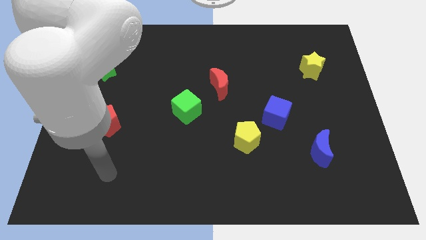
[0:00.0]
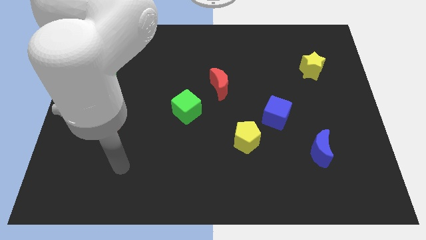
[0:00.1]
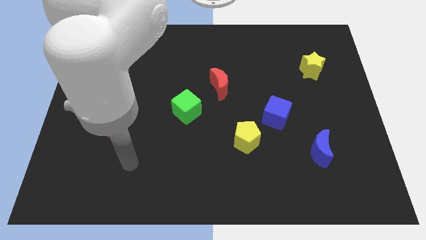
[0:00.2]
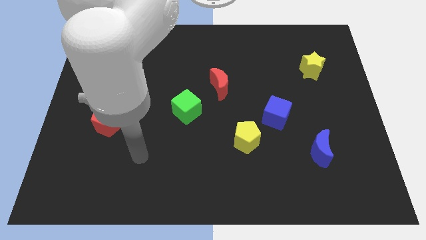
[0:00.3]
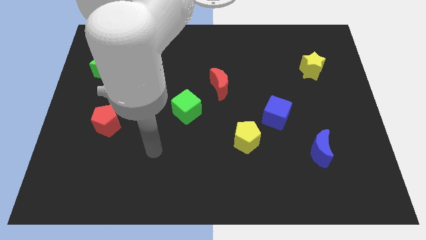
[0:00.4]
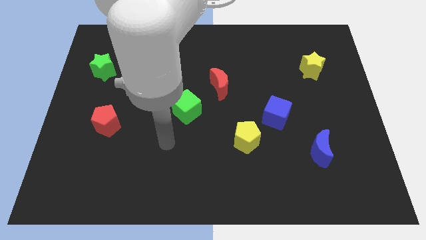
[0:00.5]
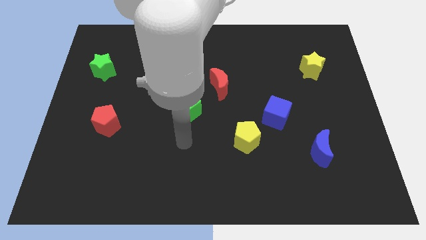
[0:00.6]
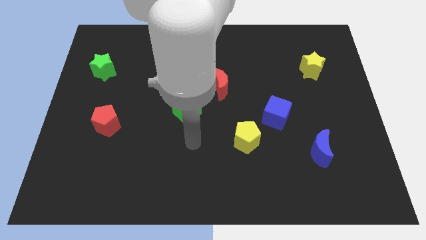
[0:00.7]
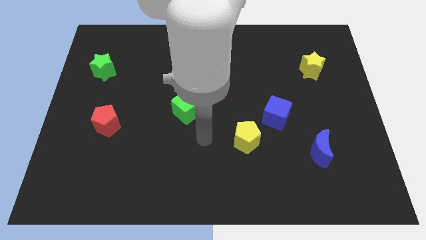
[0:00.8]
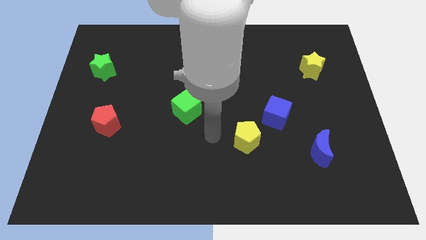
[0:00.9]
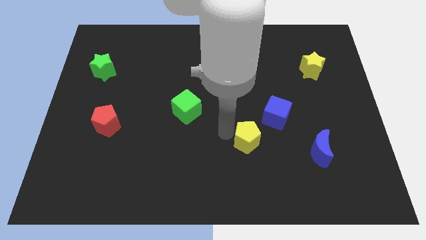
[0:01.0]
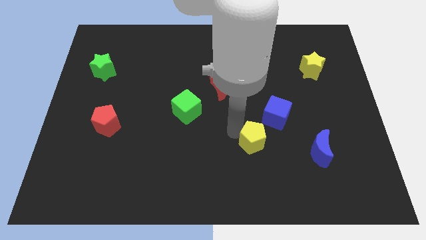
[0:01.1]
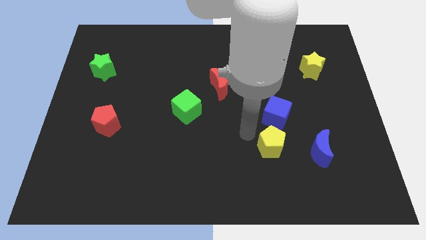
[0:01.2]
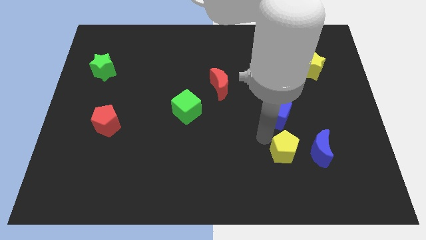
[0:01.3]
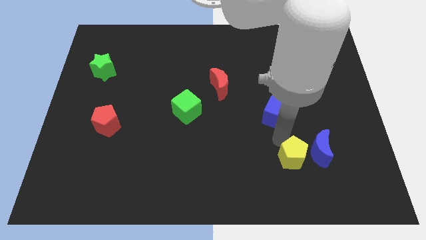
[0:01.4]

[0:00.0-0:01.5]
separate the blue cube from the yellow pentagon

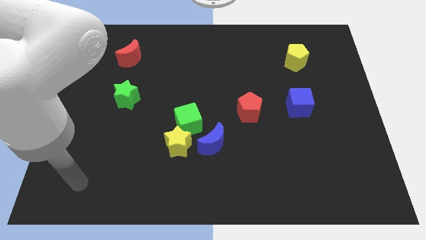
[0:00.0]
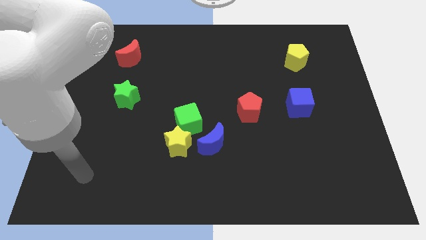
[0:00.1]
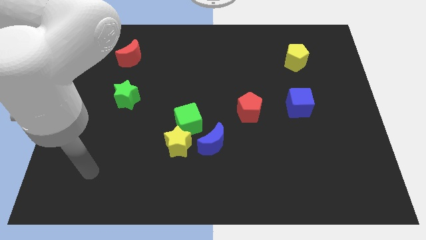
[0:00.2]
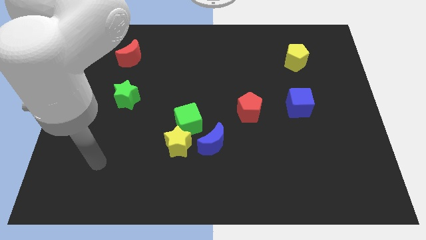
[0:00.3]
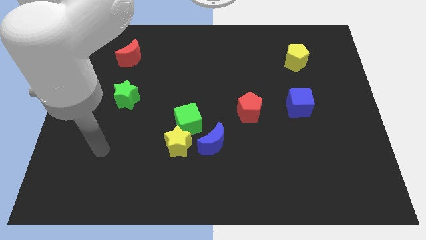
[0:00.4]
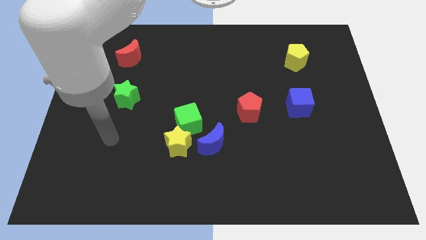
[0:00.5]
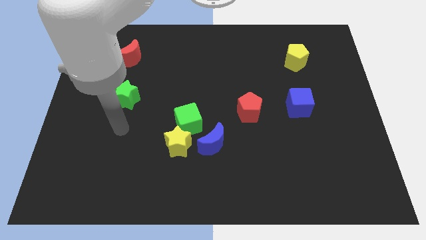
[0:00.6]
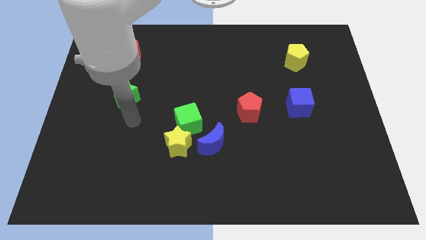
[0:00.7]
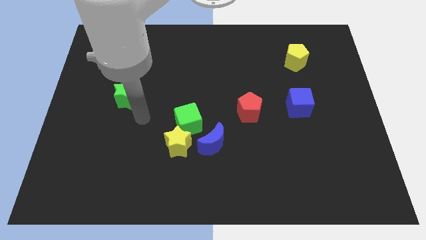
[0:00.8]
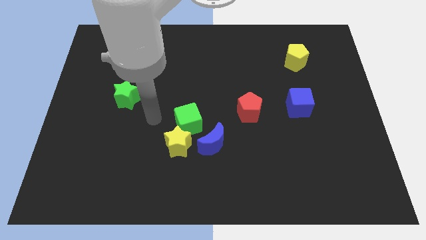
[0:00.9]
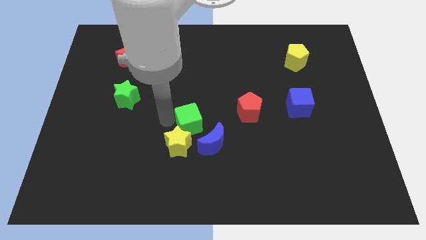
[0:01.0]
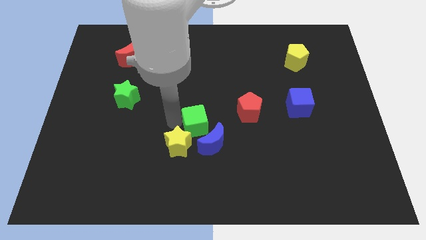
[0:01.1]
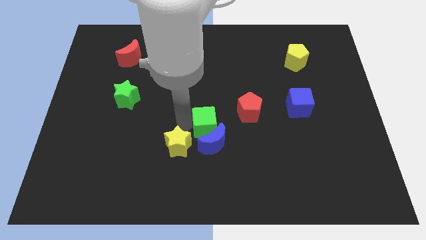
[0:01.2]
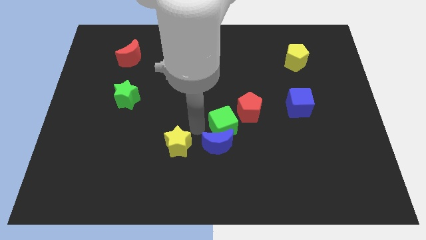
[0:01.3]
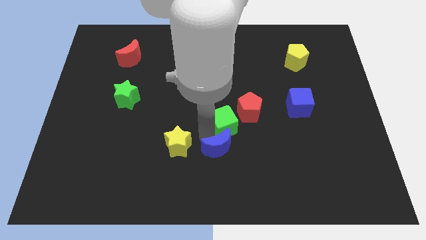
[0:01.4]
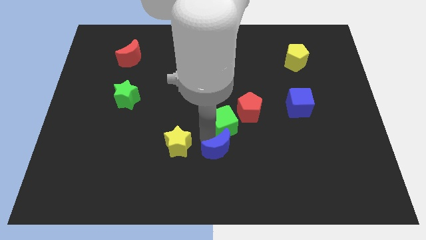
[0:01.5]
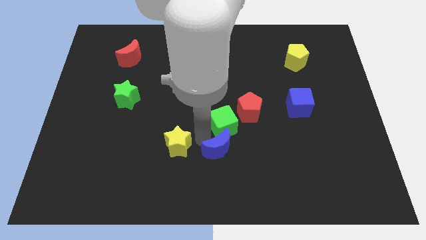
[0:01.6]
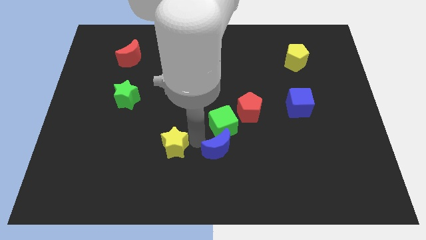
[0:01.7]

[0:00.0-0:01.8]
pull the yellow star apart from the green cube and blue moon

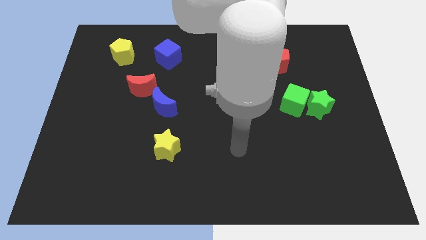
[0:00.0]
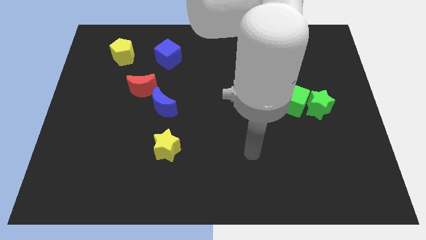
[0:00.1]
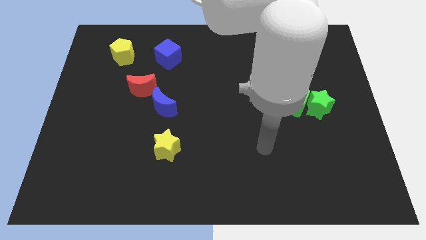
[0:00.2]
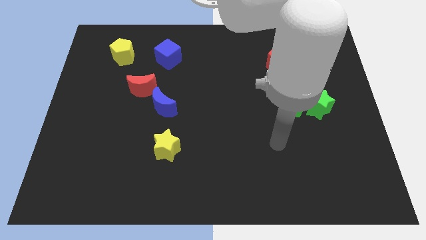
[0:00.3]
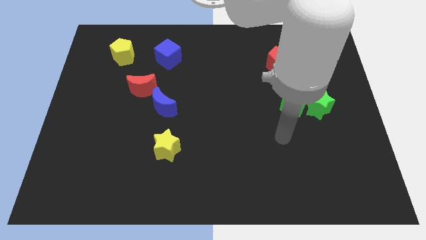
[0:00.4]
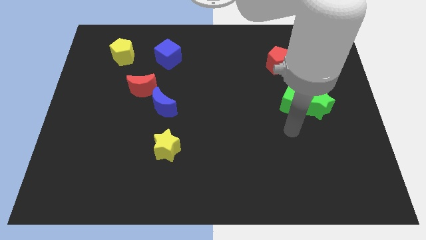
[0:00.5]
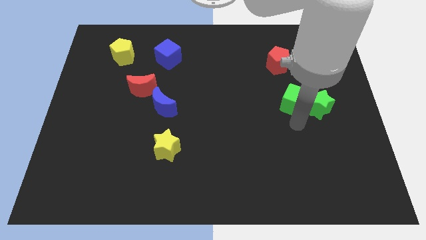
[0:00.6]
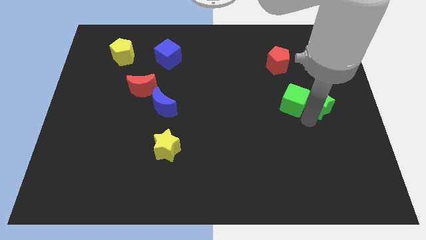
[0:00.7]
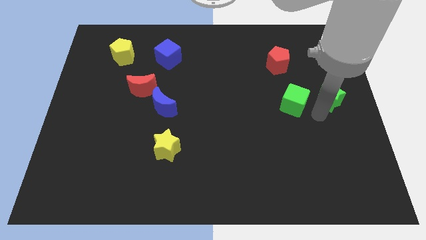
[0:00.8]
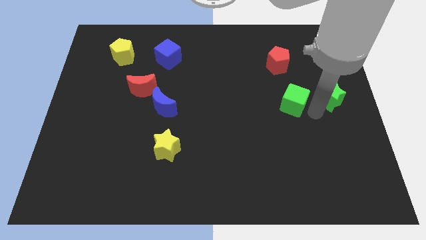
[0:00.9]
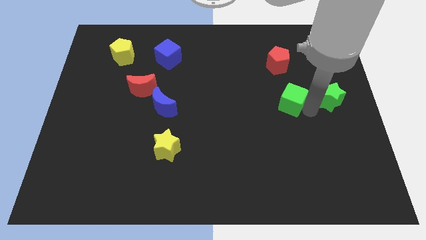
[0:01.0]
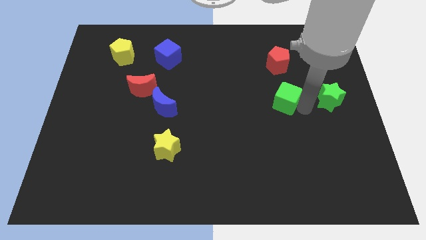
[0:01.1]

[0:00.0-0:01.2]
move the green cube away from the green star

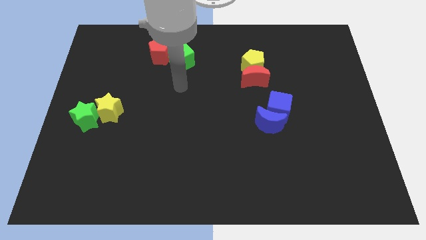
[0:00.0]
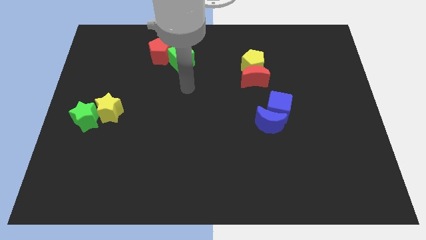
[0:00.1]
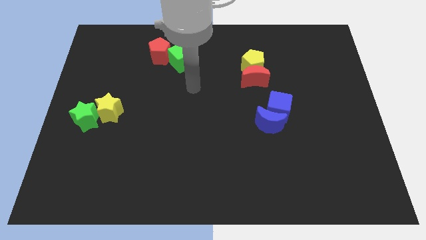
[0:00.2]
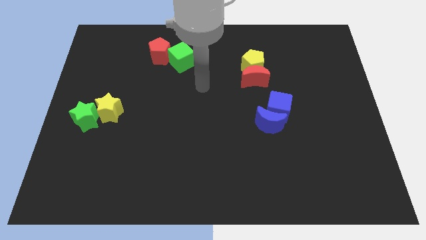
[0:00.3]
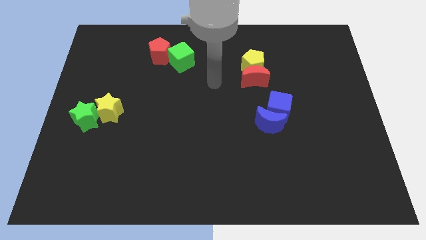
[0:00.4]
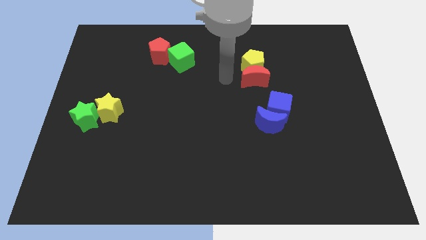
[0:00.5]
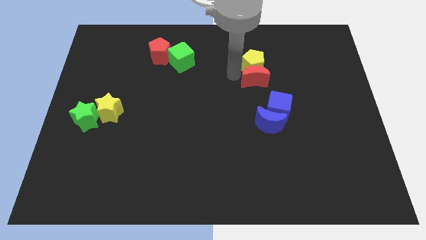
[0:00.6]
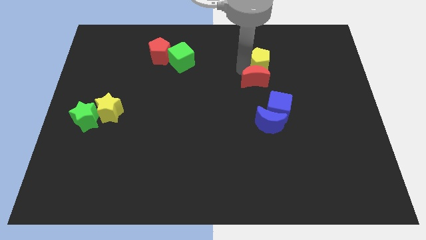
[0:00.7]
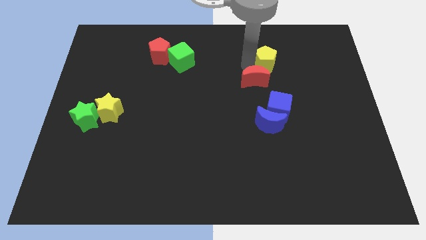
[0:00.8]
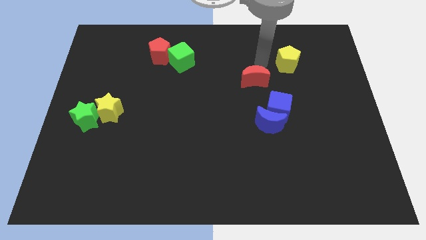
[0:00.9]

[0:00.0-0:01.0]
separate the red moon from the yellow pentagon

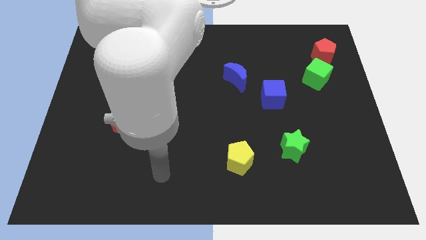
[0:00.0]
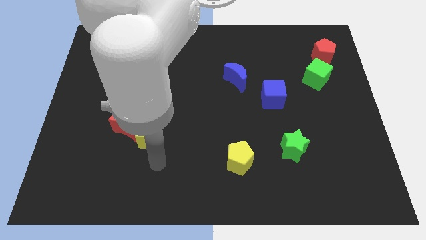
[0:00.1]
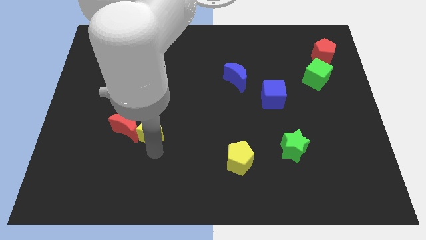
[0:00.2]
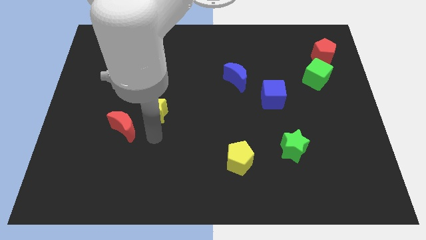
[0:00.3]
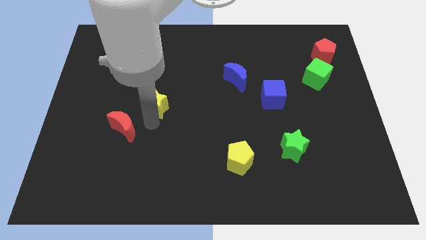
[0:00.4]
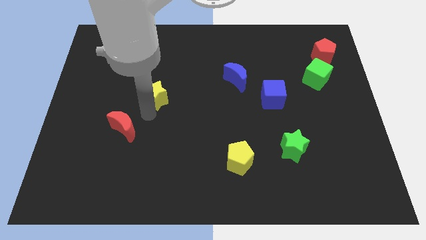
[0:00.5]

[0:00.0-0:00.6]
move the red moon away from the yellow star

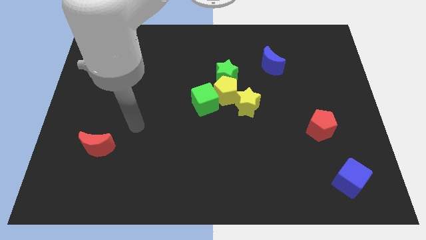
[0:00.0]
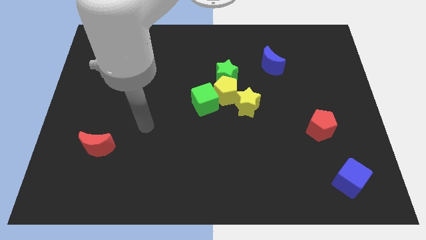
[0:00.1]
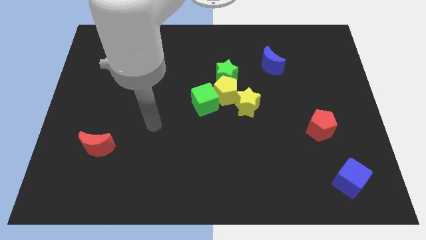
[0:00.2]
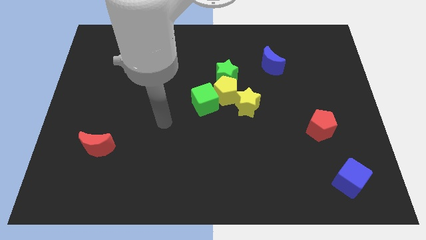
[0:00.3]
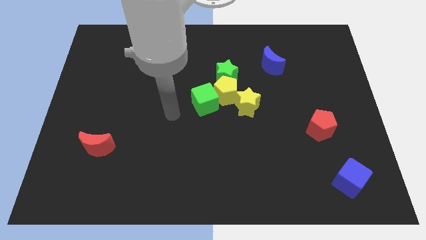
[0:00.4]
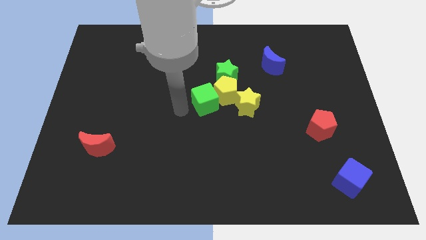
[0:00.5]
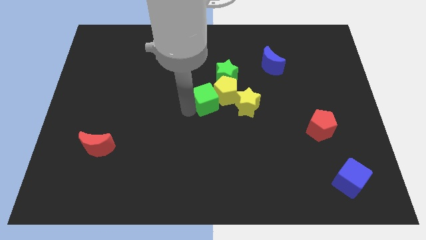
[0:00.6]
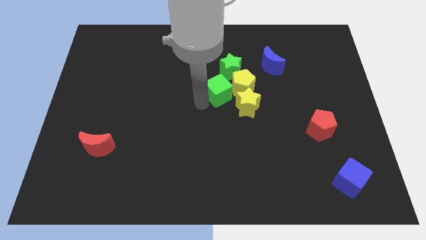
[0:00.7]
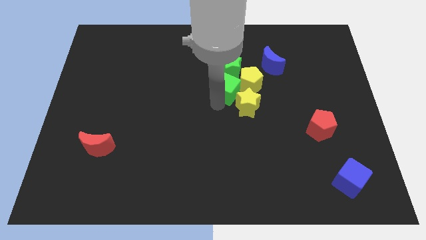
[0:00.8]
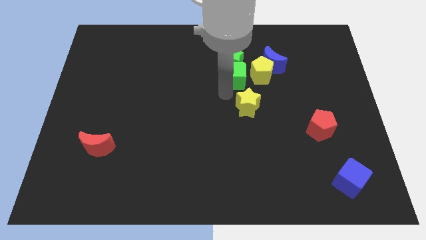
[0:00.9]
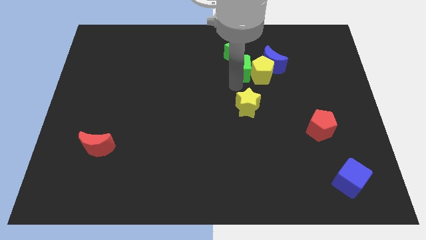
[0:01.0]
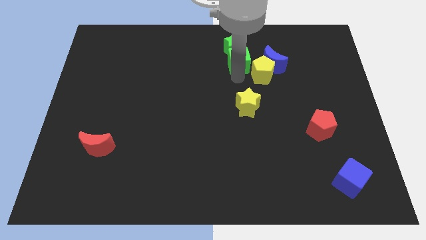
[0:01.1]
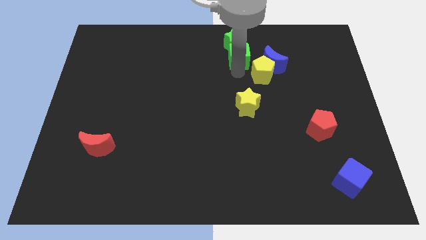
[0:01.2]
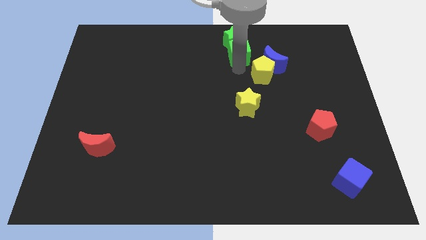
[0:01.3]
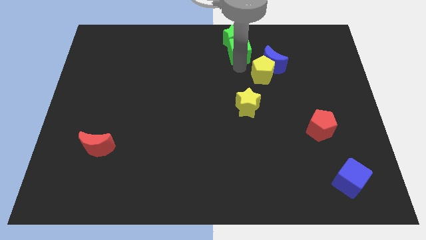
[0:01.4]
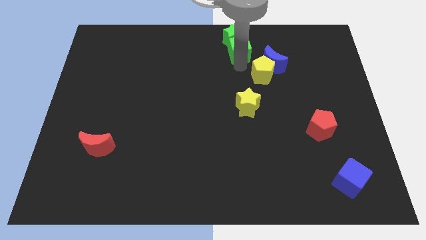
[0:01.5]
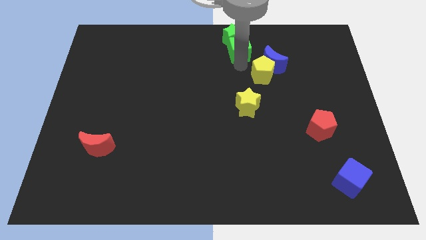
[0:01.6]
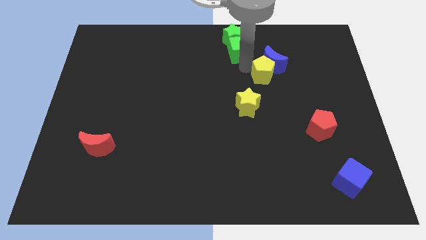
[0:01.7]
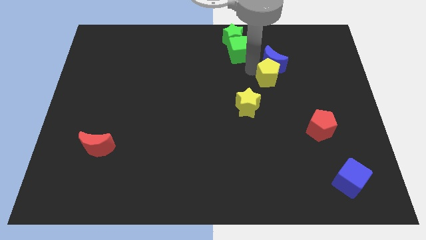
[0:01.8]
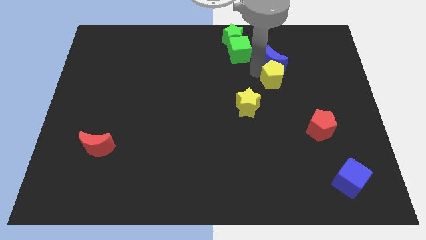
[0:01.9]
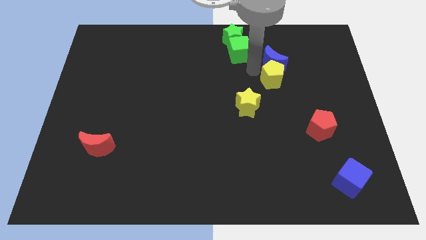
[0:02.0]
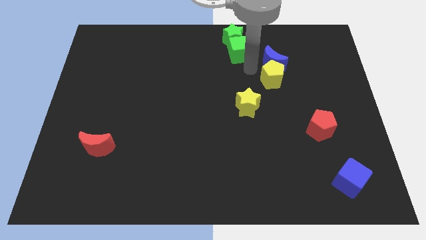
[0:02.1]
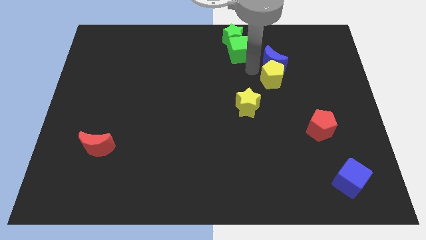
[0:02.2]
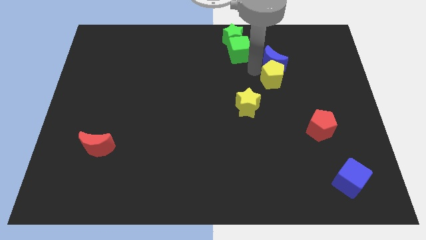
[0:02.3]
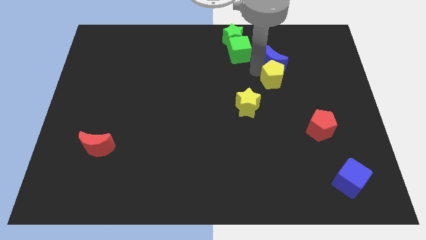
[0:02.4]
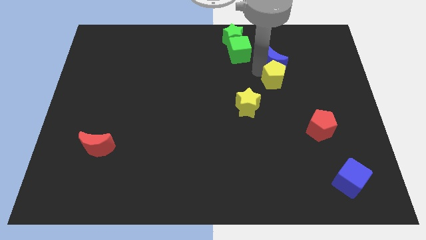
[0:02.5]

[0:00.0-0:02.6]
separate the yellow pentagon from the group of blocks

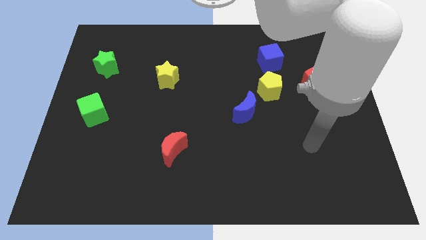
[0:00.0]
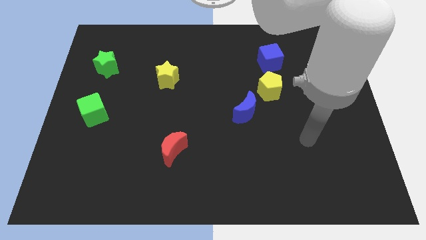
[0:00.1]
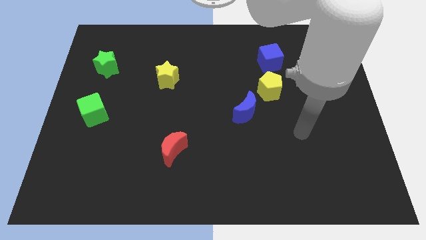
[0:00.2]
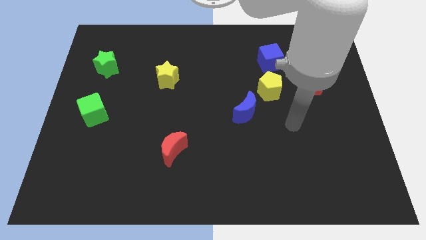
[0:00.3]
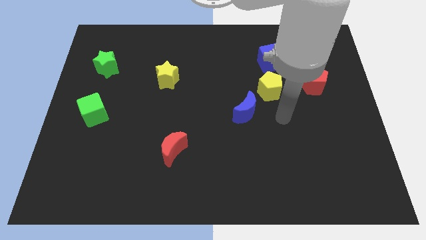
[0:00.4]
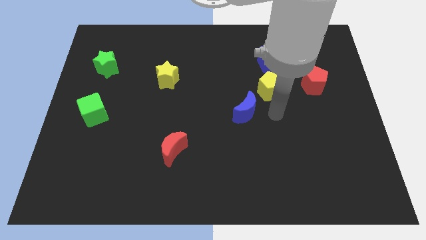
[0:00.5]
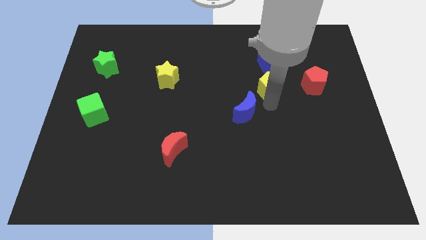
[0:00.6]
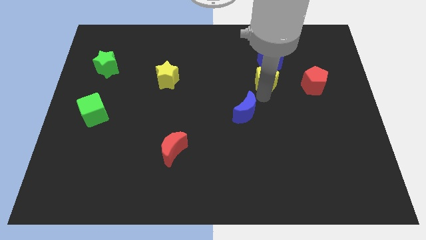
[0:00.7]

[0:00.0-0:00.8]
separate the blue moon from the yellow pentagon
